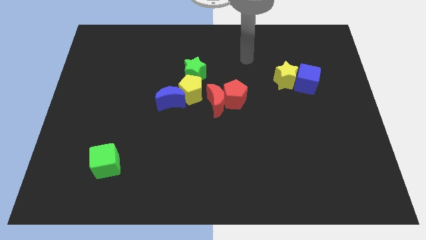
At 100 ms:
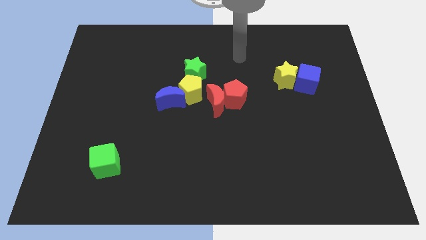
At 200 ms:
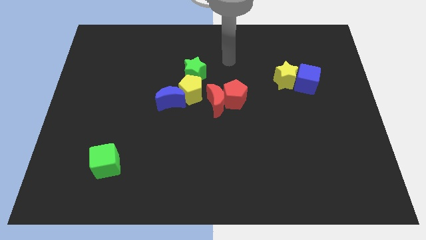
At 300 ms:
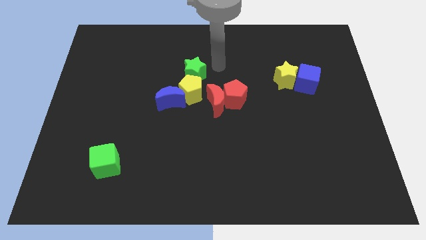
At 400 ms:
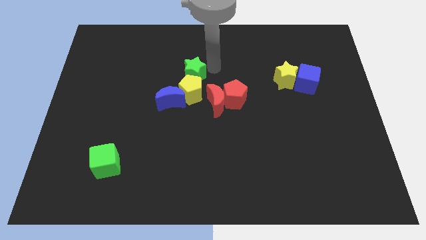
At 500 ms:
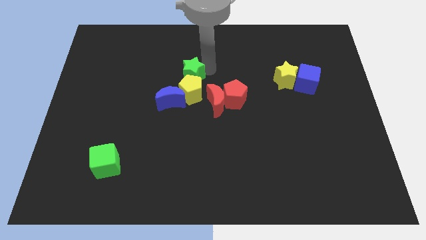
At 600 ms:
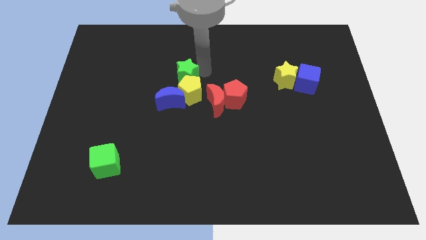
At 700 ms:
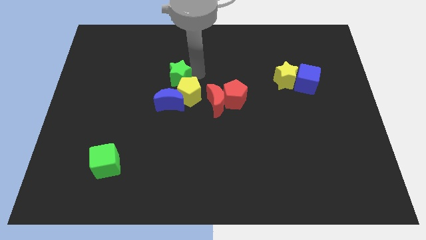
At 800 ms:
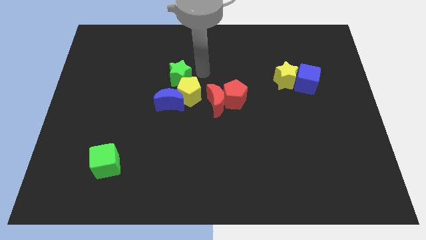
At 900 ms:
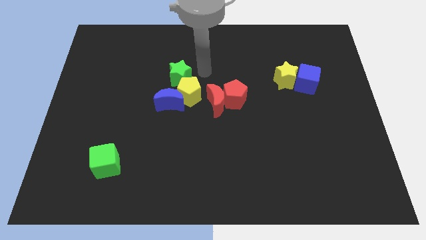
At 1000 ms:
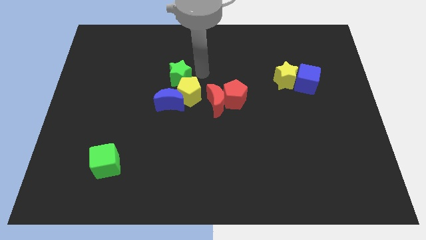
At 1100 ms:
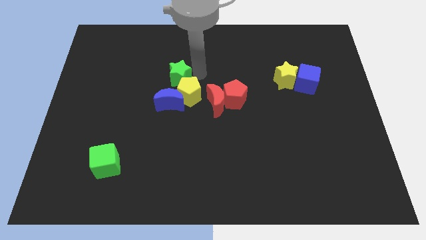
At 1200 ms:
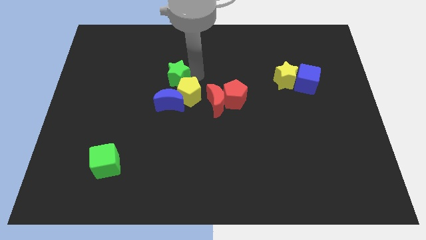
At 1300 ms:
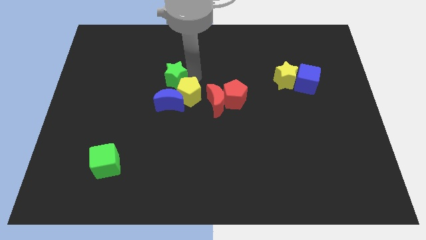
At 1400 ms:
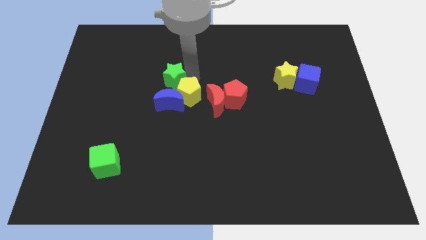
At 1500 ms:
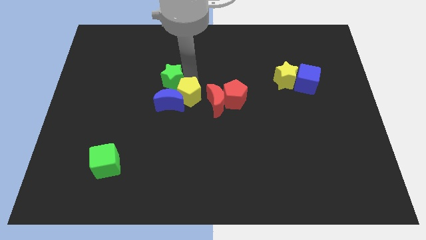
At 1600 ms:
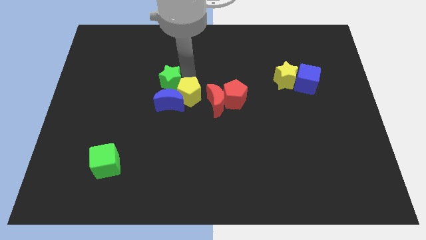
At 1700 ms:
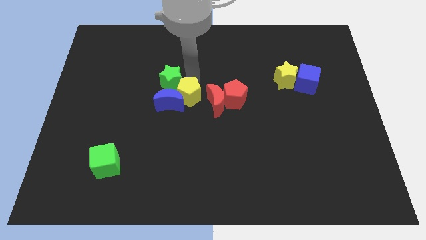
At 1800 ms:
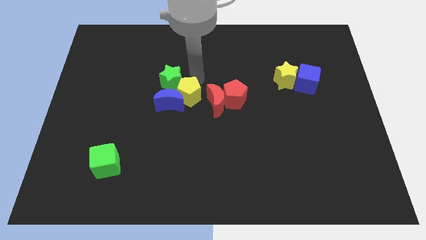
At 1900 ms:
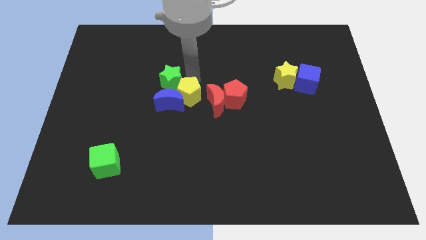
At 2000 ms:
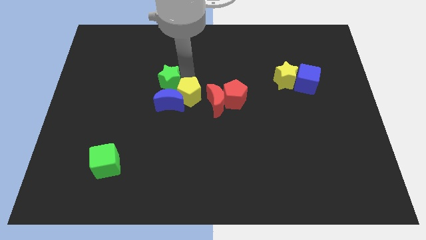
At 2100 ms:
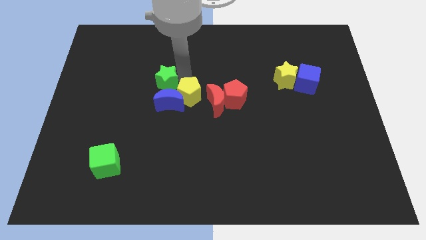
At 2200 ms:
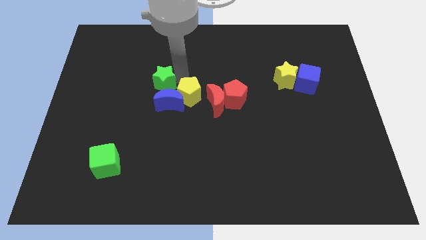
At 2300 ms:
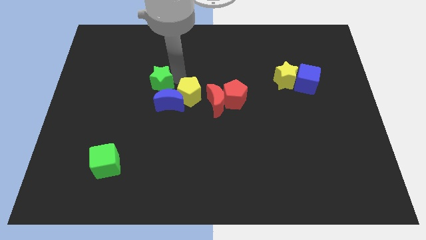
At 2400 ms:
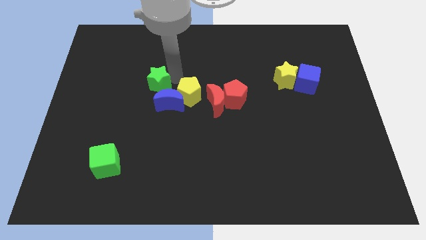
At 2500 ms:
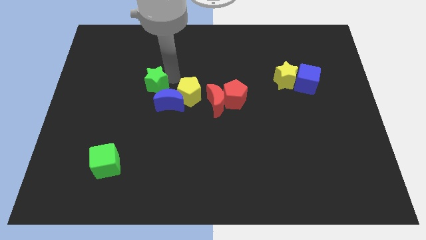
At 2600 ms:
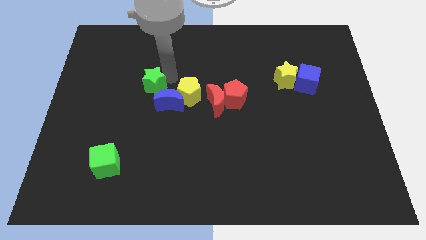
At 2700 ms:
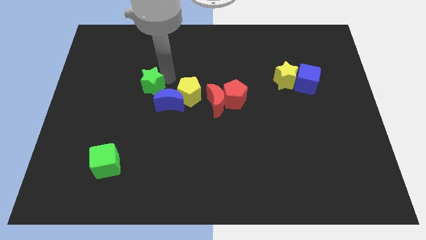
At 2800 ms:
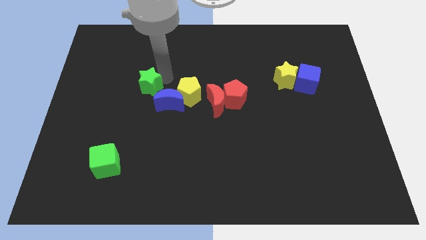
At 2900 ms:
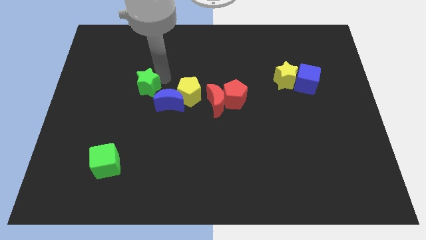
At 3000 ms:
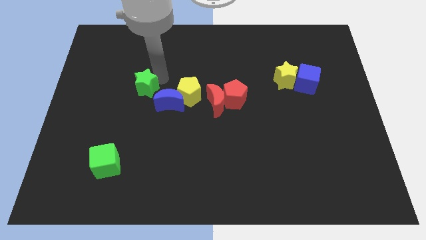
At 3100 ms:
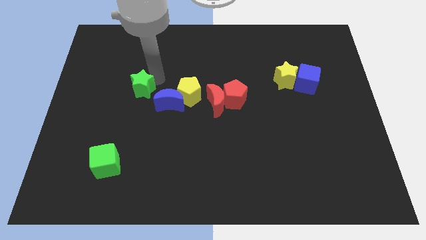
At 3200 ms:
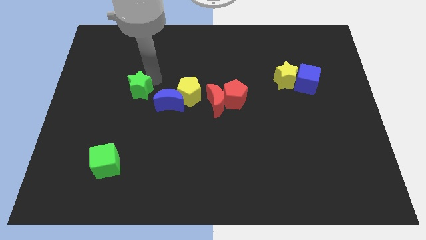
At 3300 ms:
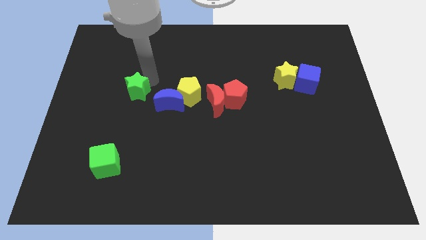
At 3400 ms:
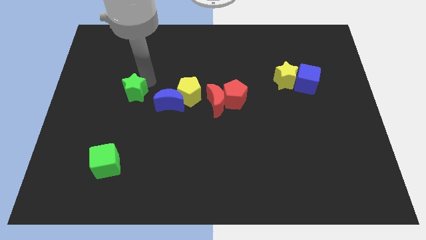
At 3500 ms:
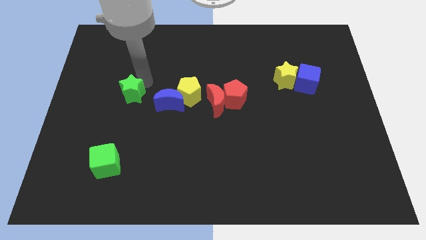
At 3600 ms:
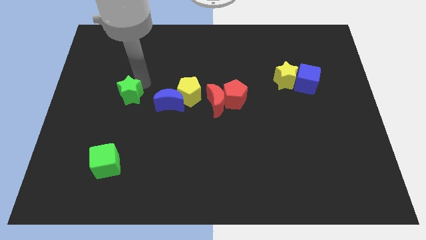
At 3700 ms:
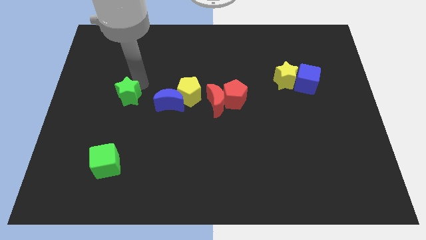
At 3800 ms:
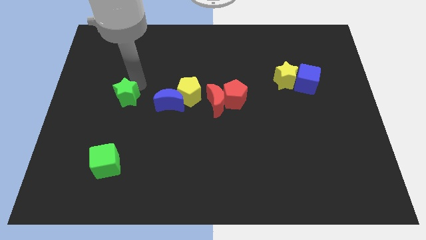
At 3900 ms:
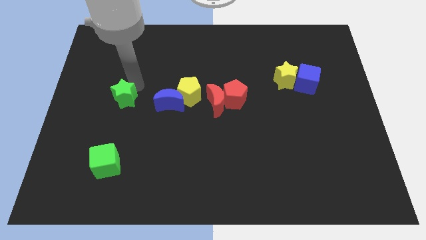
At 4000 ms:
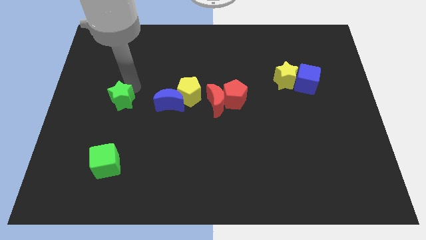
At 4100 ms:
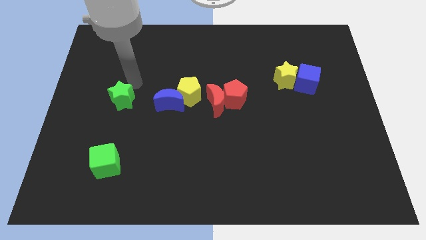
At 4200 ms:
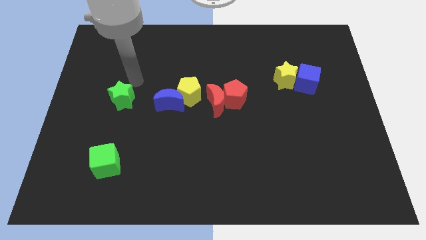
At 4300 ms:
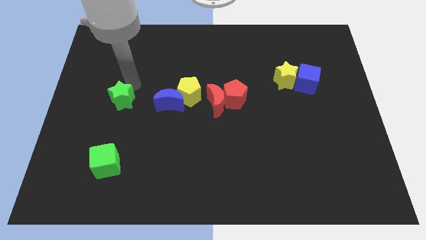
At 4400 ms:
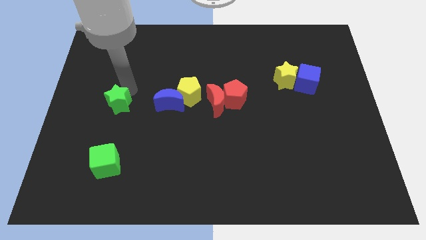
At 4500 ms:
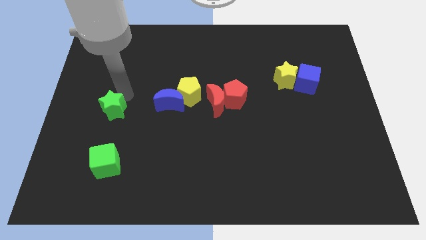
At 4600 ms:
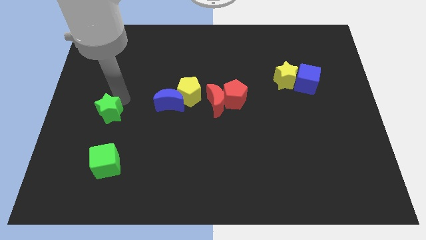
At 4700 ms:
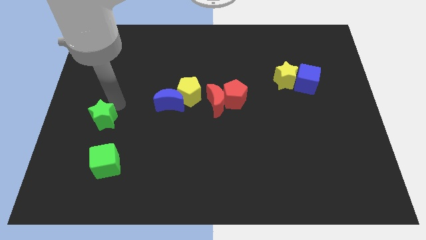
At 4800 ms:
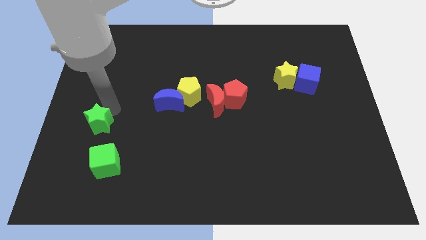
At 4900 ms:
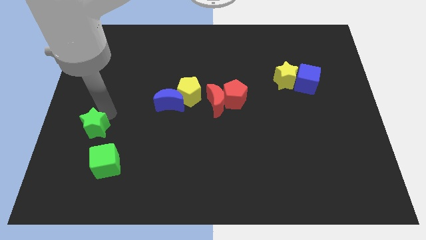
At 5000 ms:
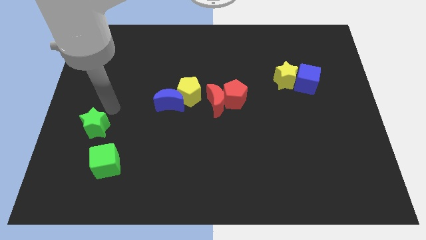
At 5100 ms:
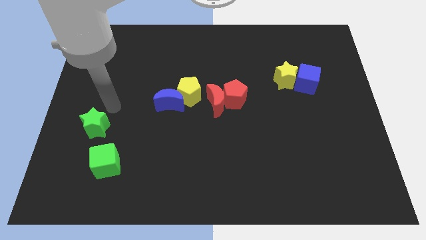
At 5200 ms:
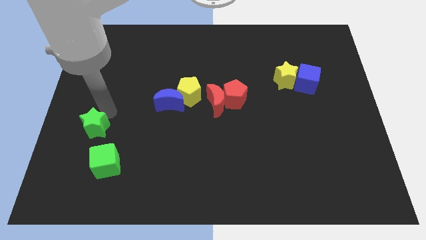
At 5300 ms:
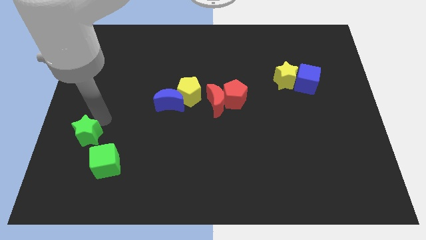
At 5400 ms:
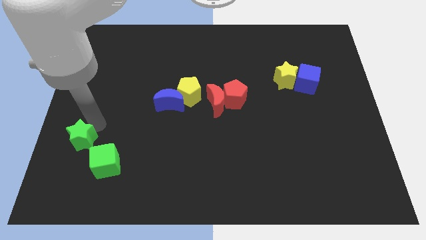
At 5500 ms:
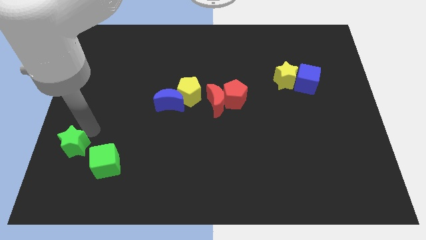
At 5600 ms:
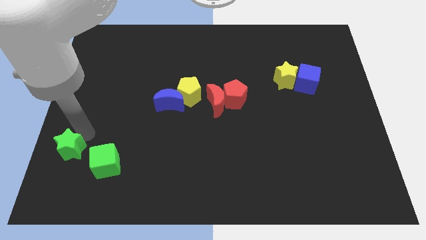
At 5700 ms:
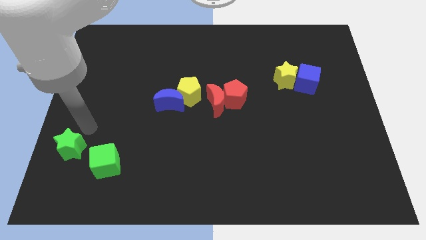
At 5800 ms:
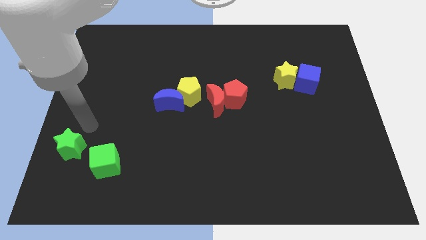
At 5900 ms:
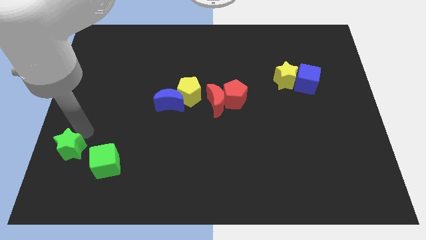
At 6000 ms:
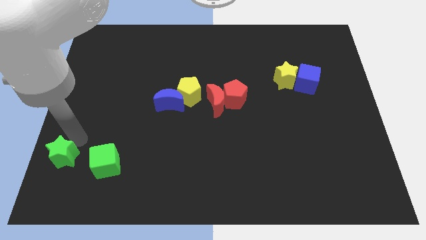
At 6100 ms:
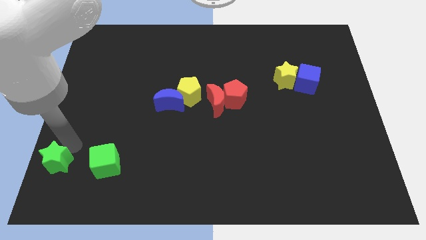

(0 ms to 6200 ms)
put the green star to the lower left corner
